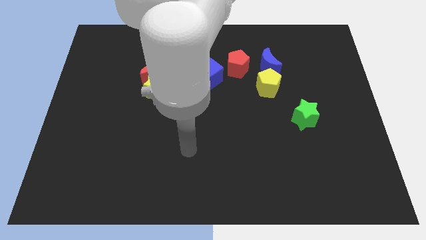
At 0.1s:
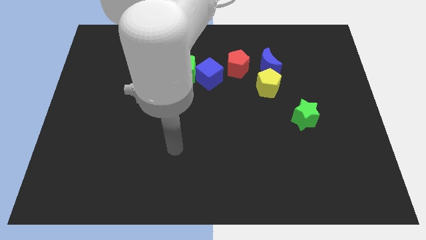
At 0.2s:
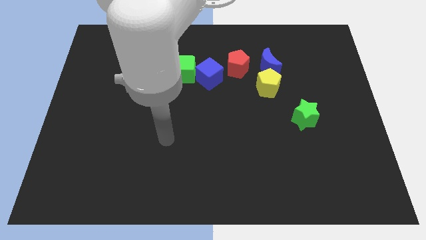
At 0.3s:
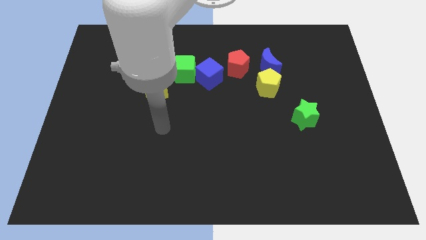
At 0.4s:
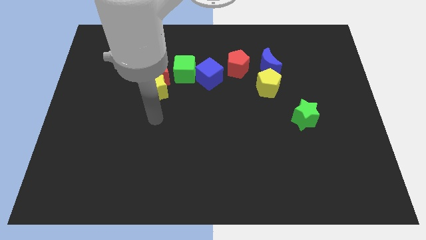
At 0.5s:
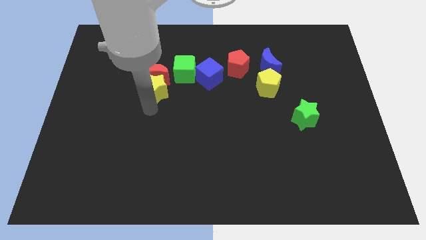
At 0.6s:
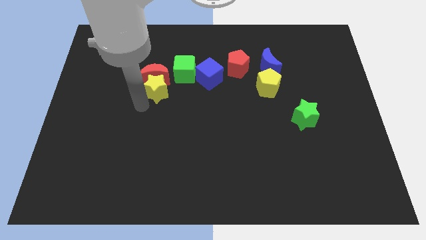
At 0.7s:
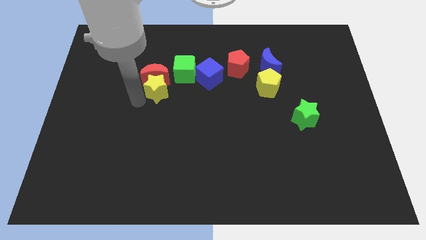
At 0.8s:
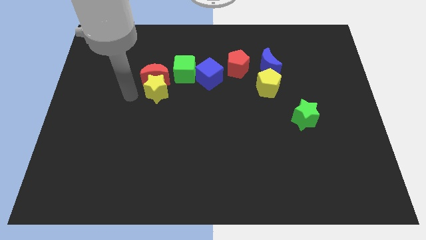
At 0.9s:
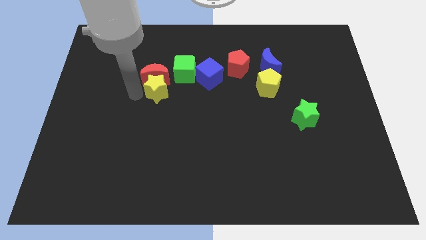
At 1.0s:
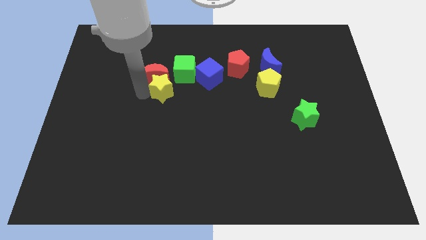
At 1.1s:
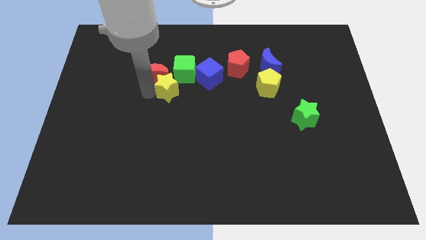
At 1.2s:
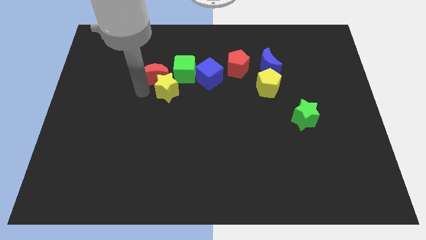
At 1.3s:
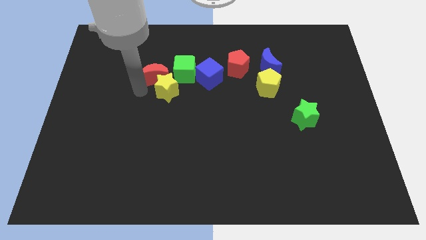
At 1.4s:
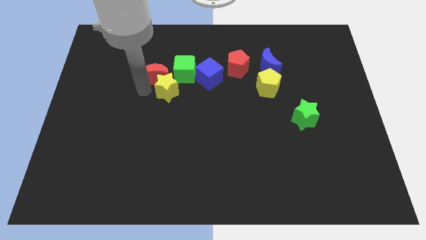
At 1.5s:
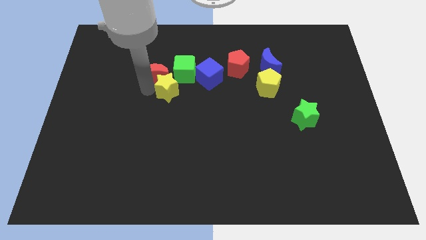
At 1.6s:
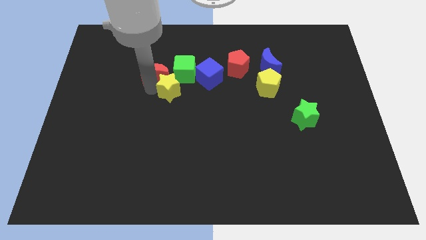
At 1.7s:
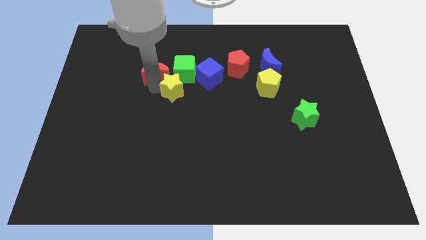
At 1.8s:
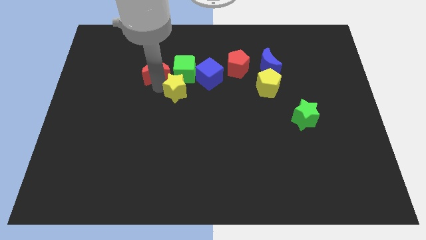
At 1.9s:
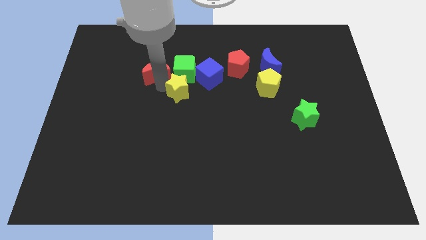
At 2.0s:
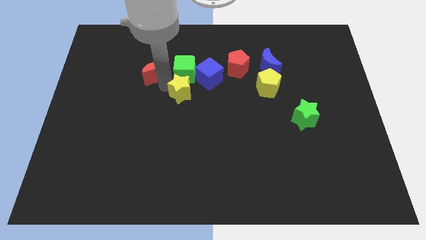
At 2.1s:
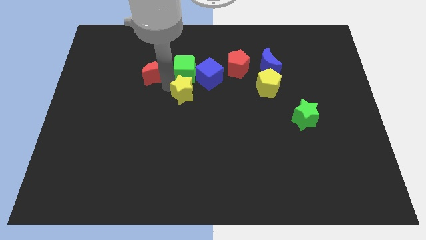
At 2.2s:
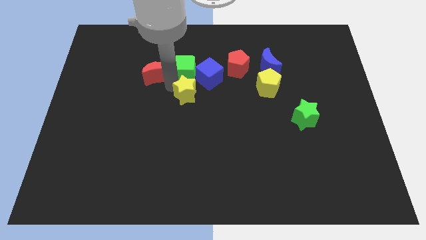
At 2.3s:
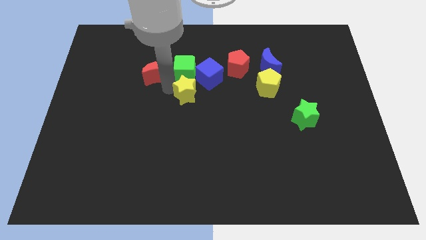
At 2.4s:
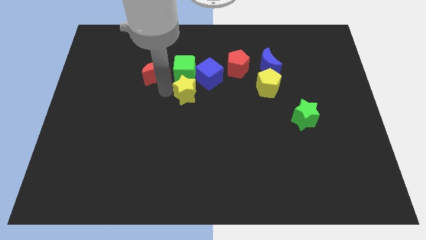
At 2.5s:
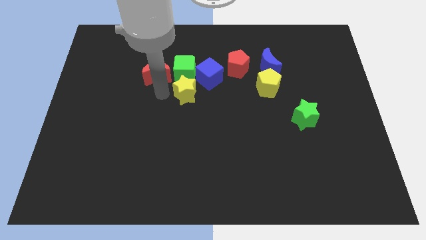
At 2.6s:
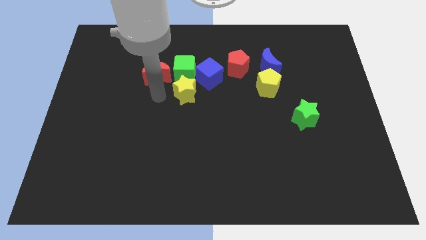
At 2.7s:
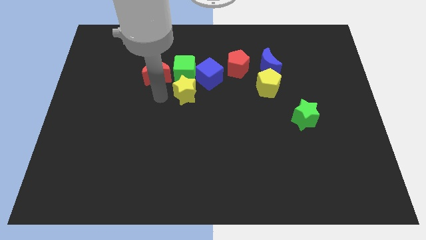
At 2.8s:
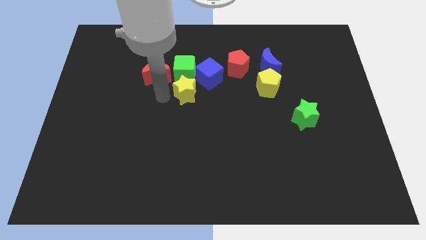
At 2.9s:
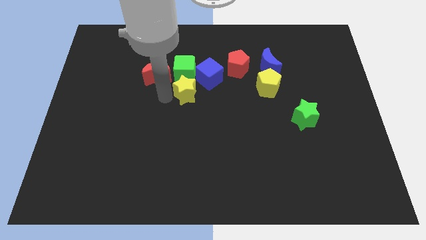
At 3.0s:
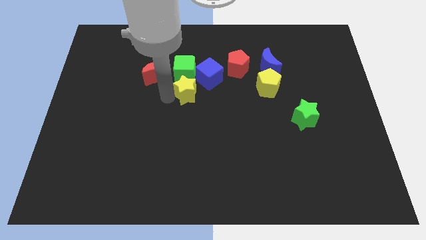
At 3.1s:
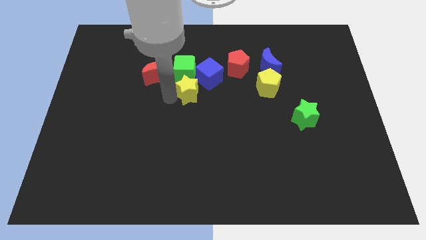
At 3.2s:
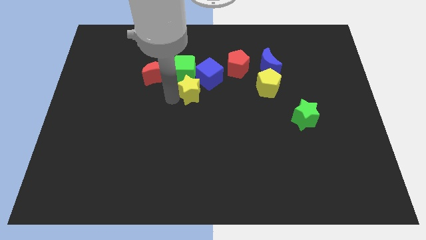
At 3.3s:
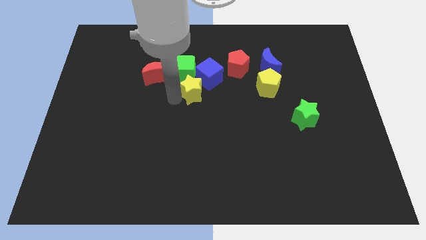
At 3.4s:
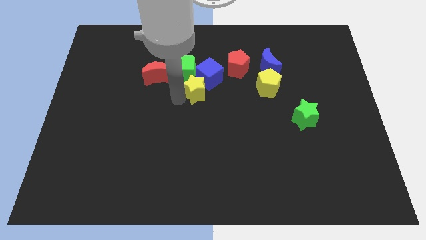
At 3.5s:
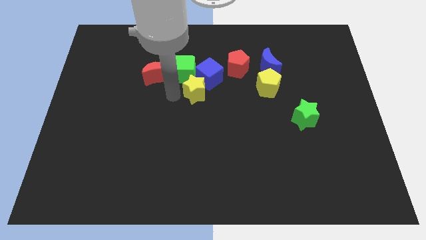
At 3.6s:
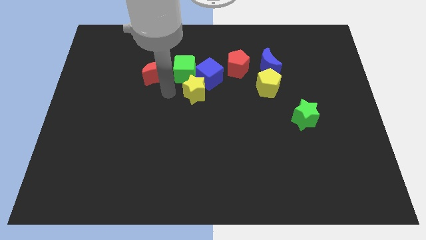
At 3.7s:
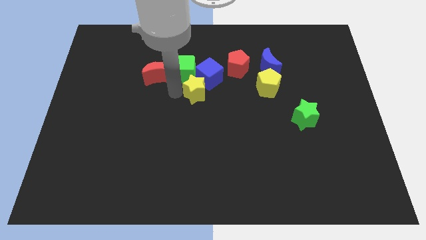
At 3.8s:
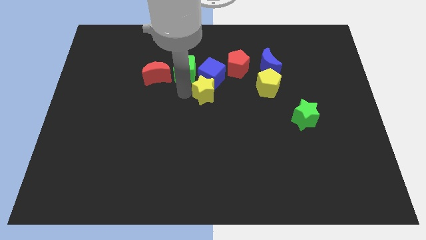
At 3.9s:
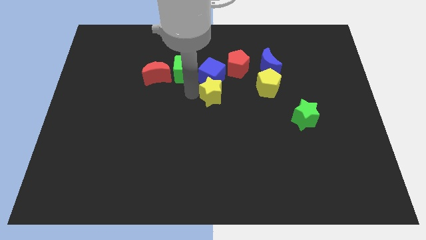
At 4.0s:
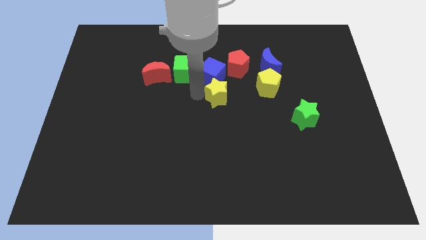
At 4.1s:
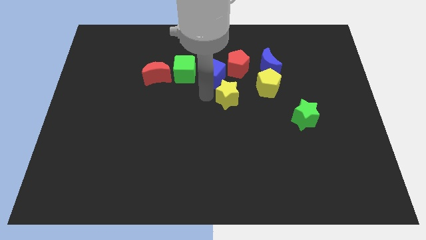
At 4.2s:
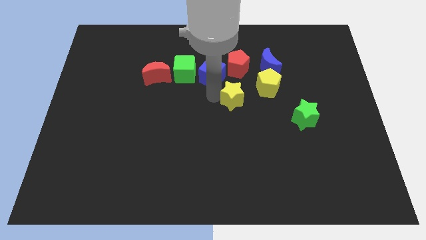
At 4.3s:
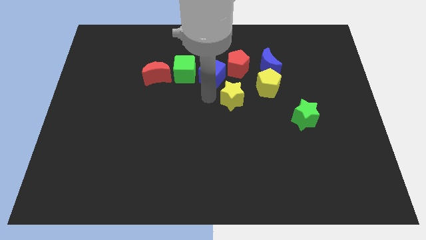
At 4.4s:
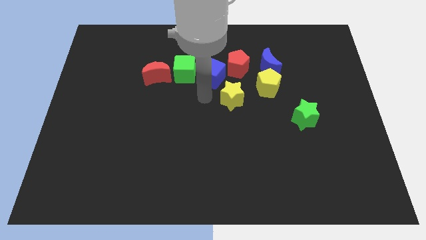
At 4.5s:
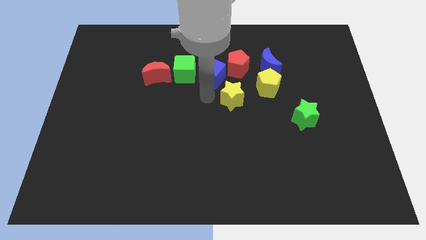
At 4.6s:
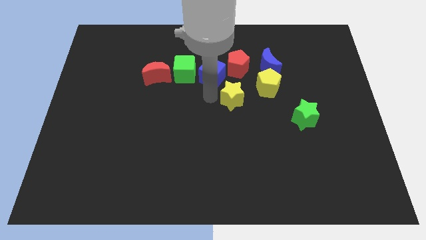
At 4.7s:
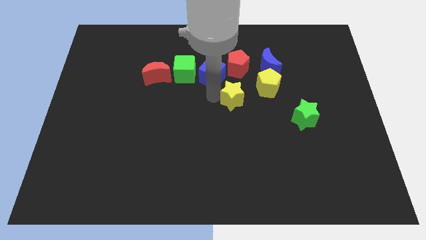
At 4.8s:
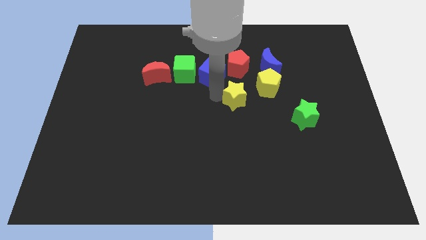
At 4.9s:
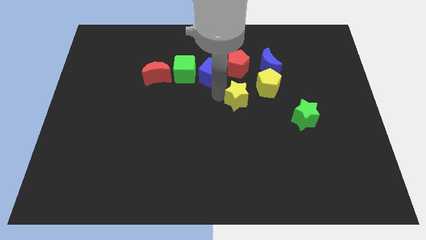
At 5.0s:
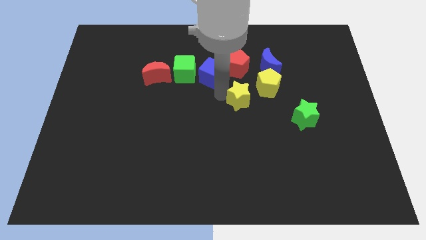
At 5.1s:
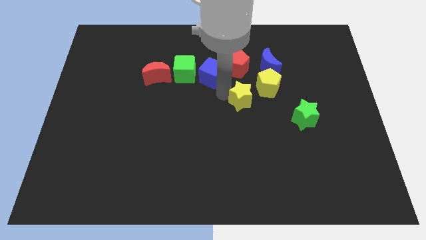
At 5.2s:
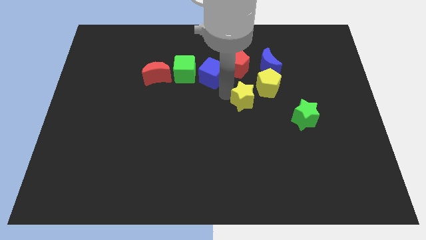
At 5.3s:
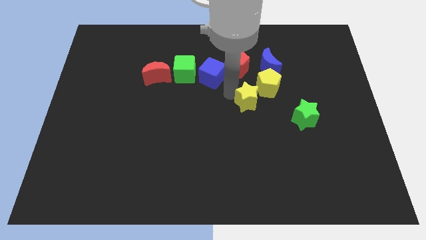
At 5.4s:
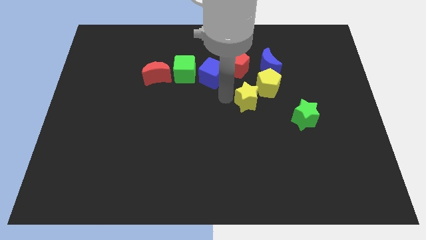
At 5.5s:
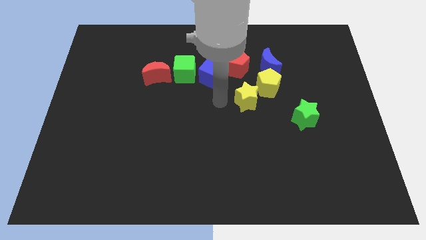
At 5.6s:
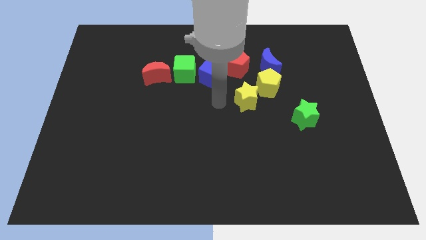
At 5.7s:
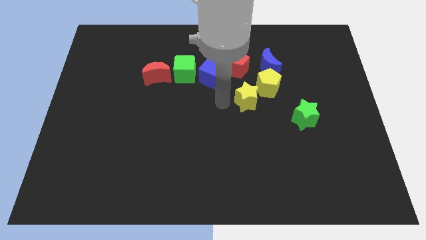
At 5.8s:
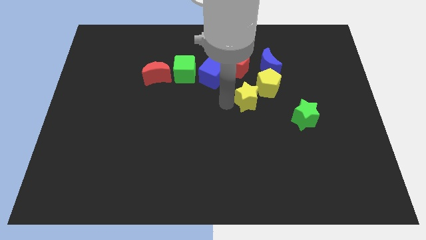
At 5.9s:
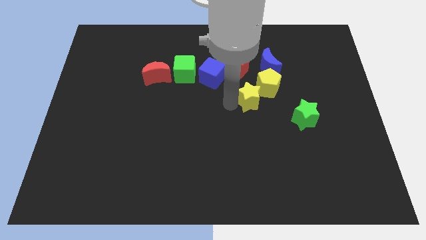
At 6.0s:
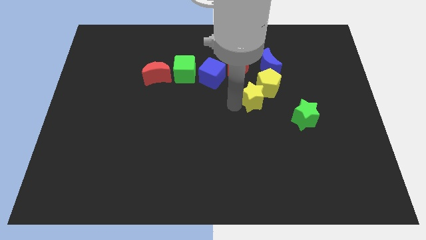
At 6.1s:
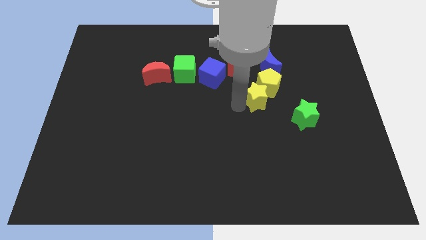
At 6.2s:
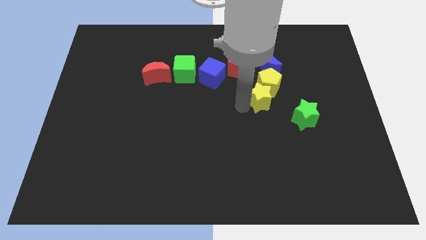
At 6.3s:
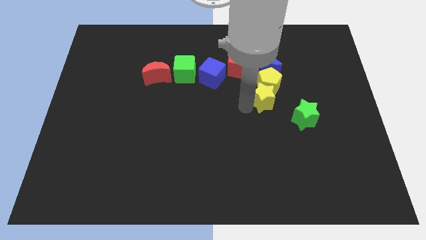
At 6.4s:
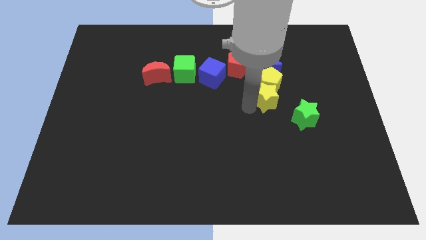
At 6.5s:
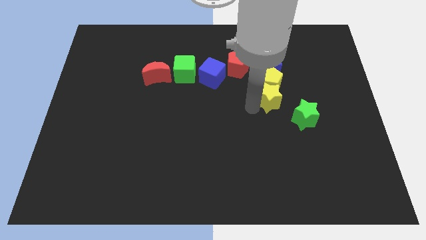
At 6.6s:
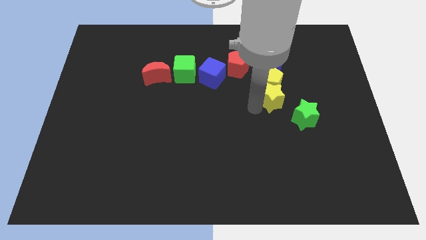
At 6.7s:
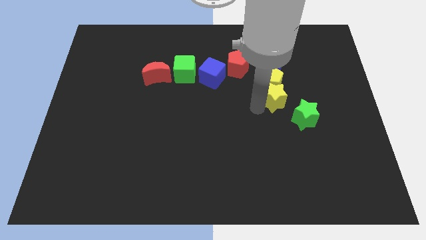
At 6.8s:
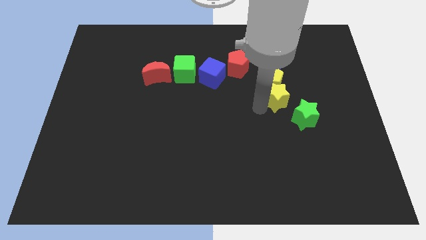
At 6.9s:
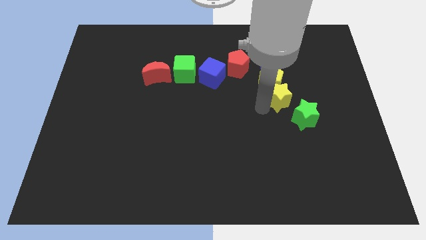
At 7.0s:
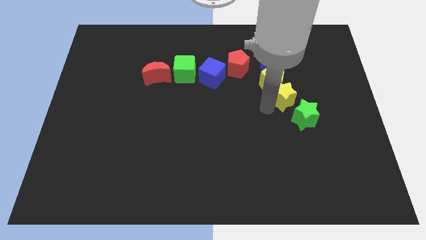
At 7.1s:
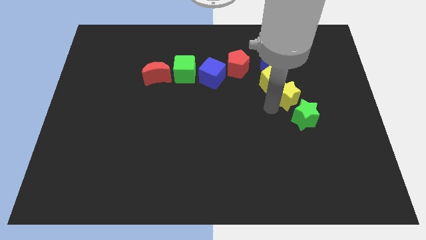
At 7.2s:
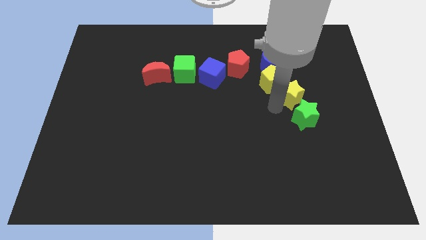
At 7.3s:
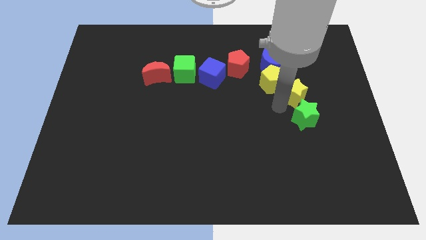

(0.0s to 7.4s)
slide the yellow star right of the yellow pentagon
